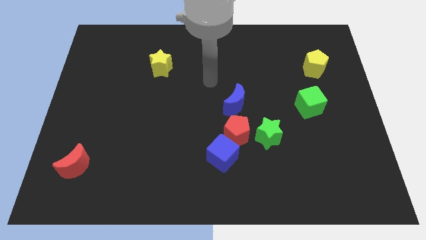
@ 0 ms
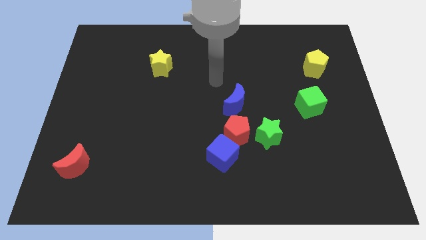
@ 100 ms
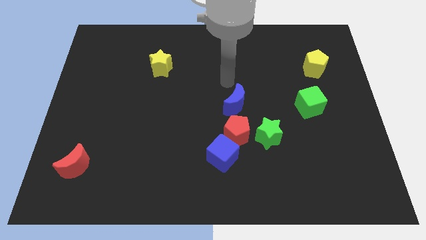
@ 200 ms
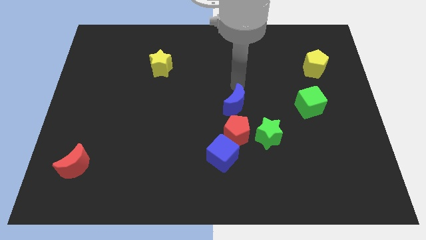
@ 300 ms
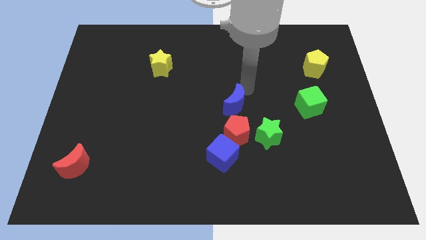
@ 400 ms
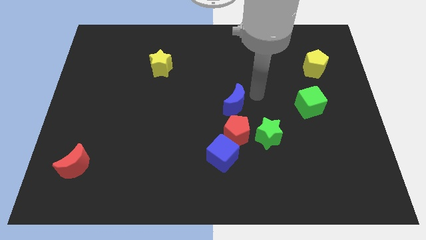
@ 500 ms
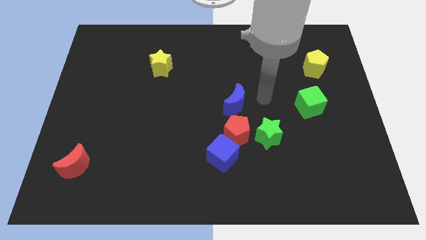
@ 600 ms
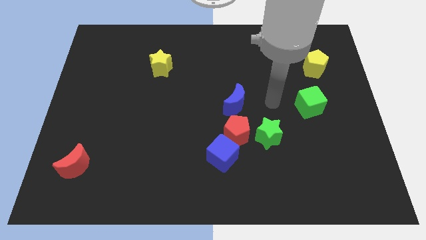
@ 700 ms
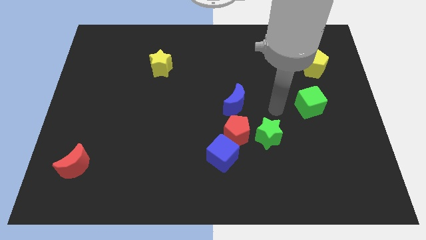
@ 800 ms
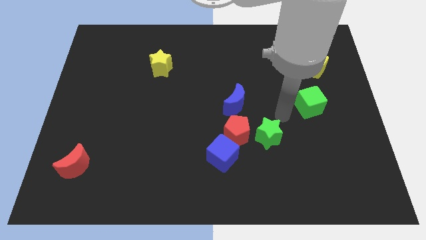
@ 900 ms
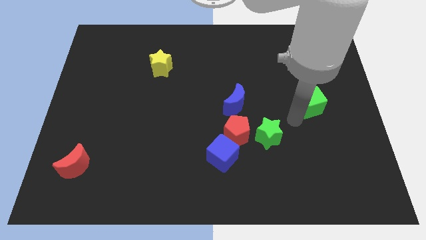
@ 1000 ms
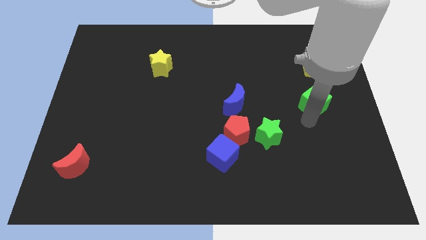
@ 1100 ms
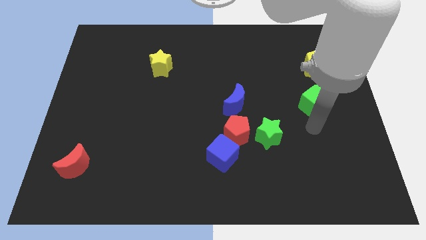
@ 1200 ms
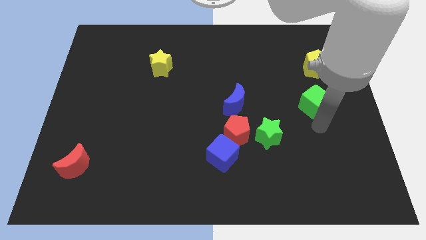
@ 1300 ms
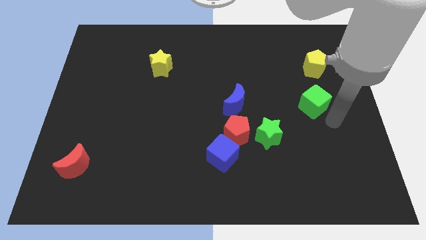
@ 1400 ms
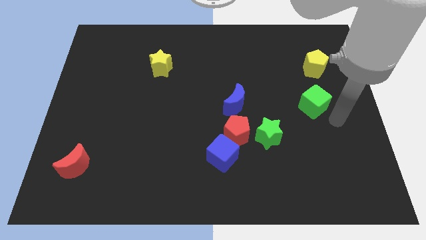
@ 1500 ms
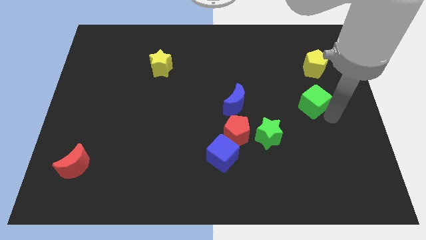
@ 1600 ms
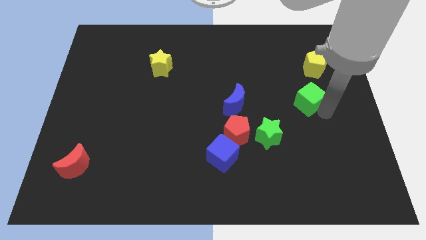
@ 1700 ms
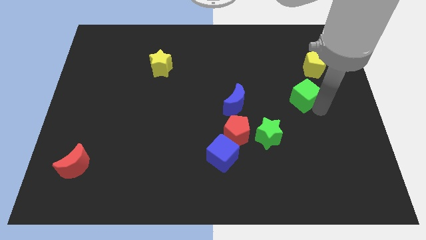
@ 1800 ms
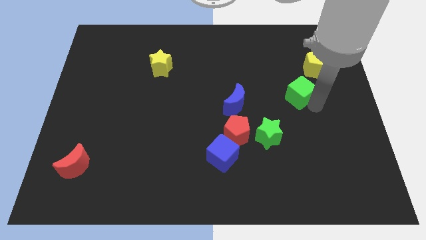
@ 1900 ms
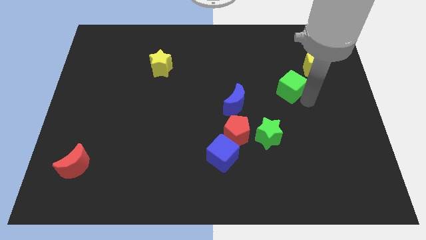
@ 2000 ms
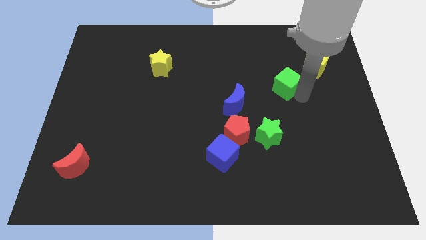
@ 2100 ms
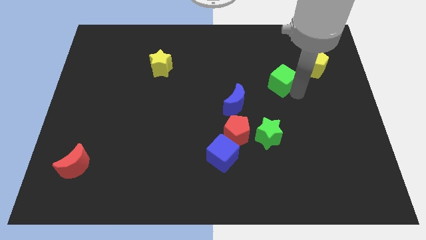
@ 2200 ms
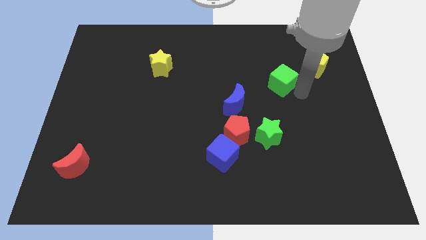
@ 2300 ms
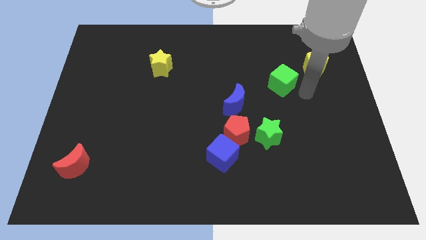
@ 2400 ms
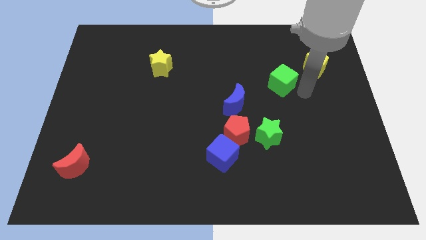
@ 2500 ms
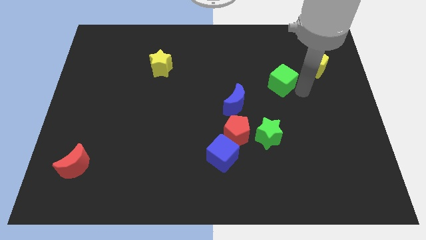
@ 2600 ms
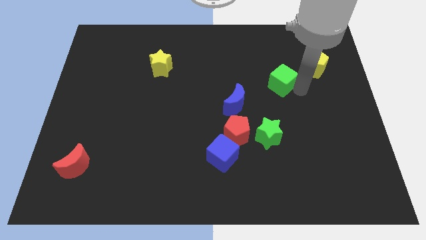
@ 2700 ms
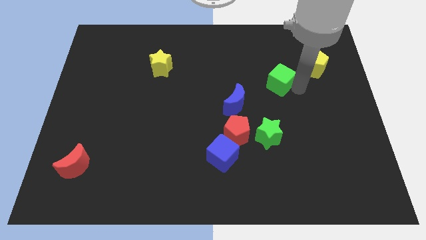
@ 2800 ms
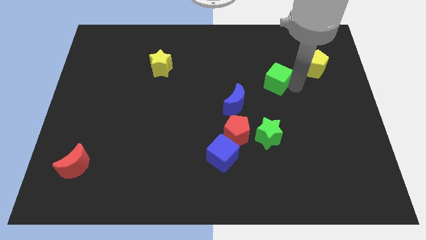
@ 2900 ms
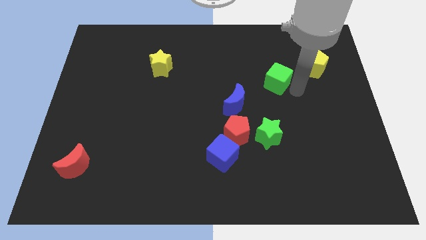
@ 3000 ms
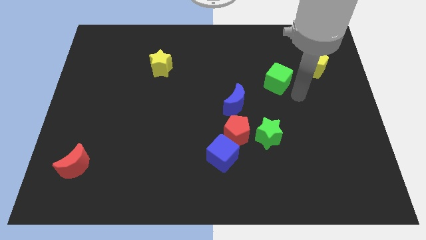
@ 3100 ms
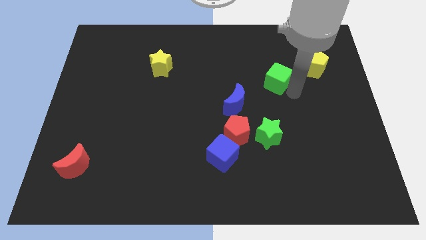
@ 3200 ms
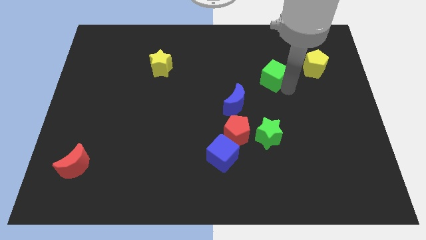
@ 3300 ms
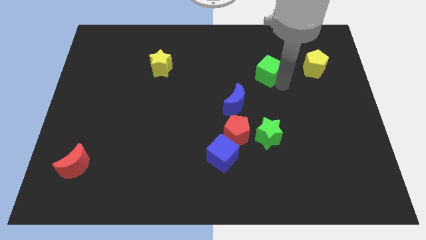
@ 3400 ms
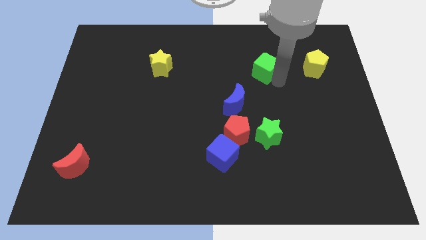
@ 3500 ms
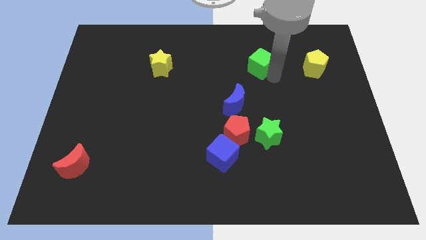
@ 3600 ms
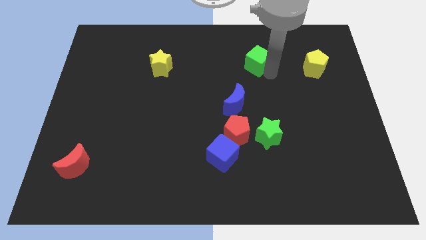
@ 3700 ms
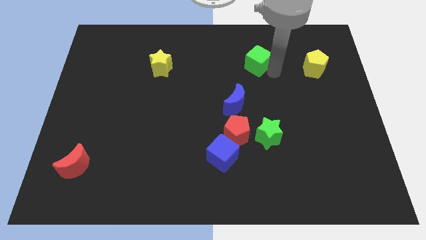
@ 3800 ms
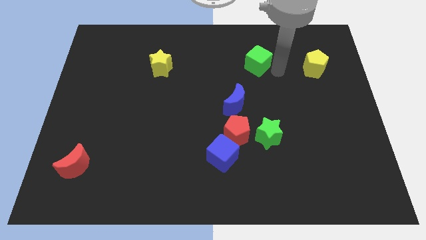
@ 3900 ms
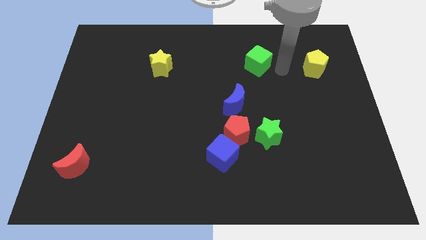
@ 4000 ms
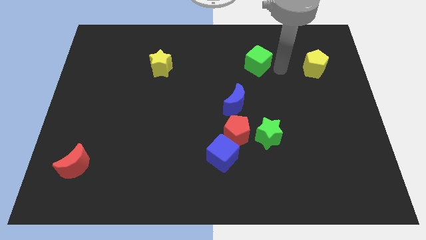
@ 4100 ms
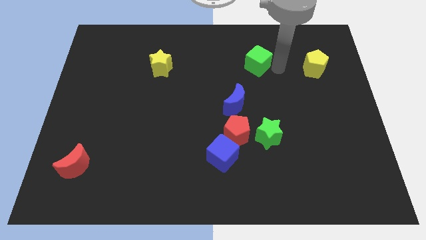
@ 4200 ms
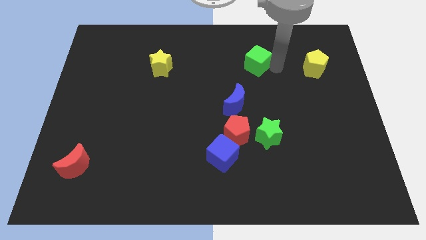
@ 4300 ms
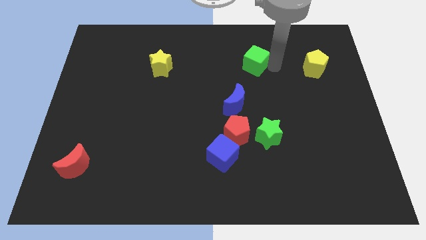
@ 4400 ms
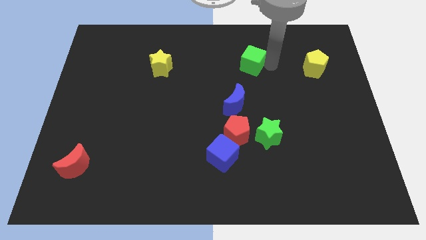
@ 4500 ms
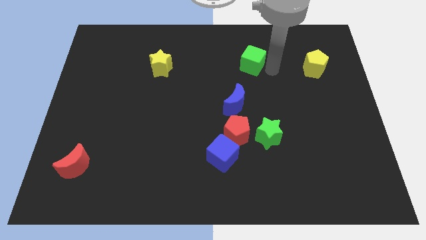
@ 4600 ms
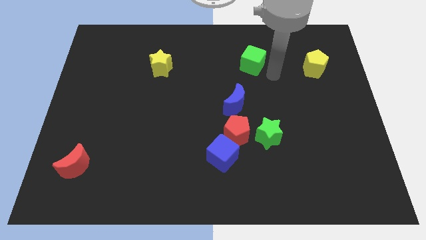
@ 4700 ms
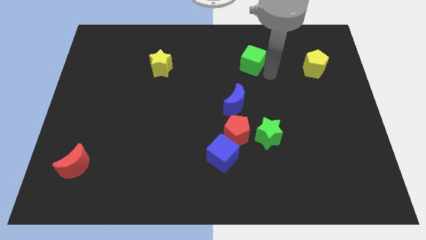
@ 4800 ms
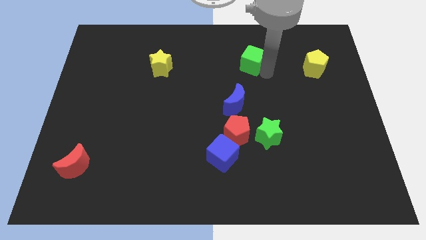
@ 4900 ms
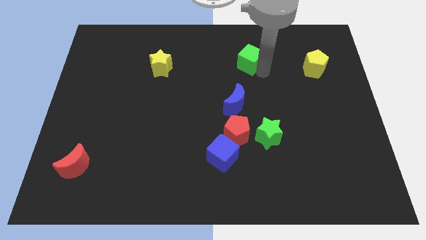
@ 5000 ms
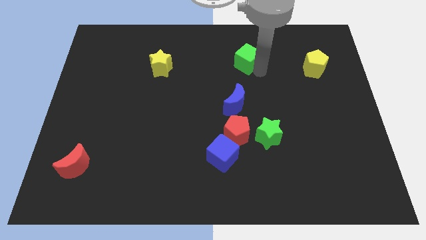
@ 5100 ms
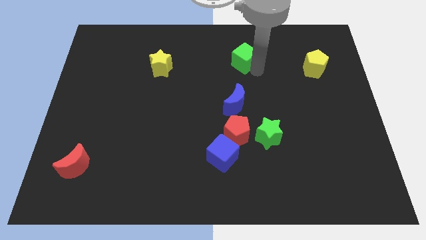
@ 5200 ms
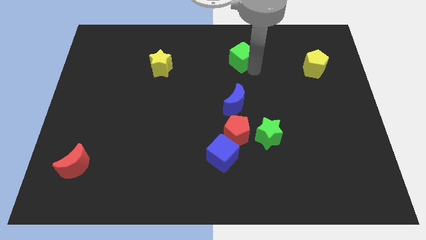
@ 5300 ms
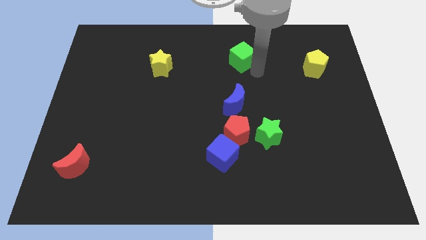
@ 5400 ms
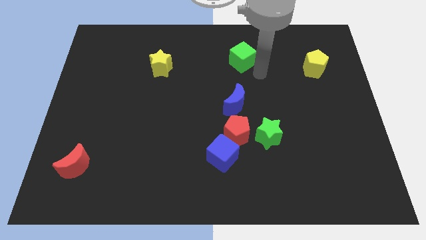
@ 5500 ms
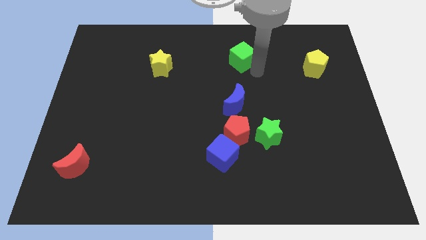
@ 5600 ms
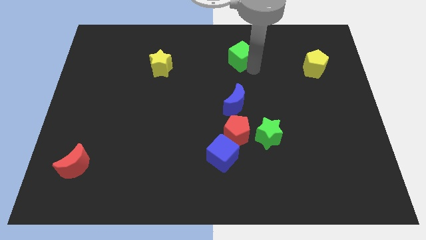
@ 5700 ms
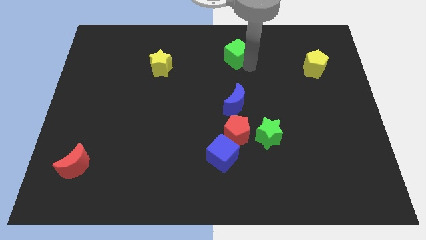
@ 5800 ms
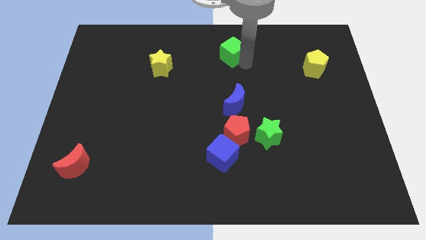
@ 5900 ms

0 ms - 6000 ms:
slide the green cube to the top side
